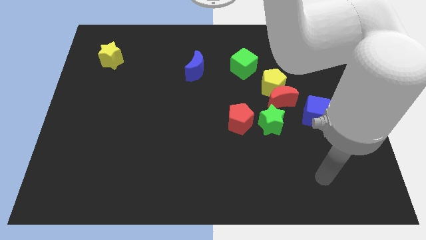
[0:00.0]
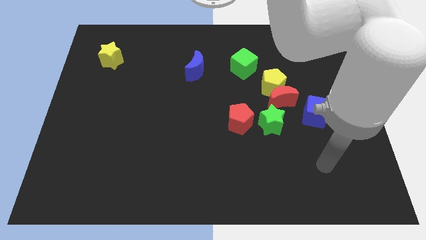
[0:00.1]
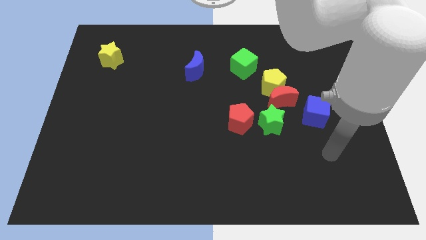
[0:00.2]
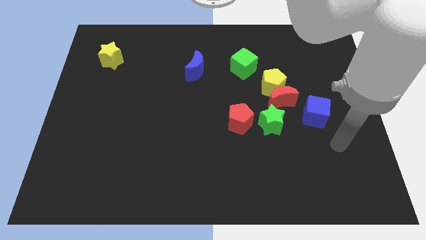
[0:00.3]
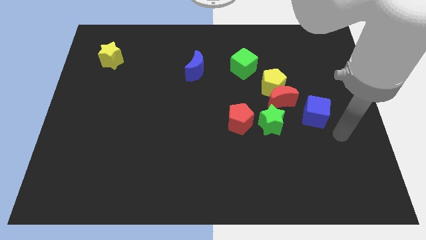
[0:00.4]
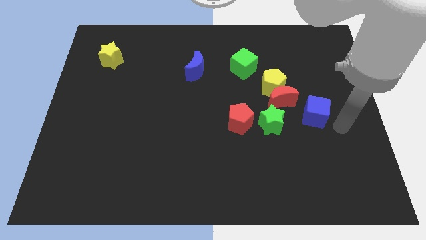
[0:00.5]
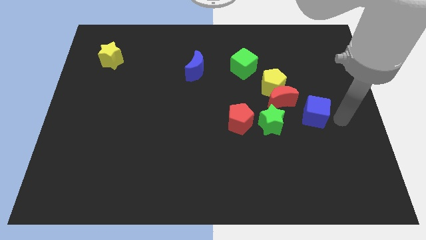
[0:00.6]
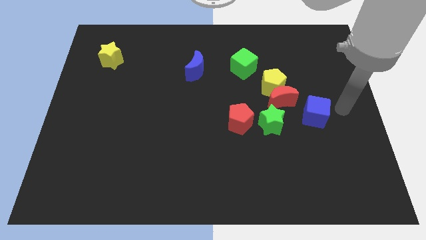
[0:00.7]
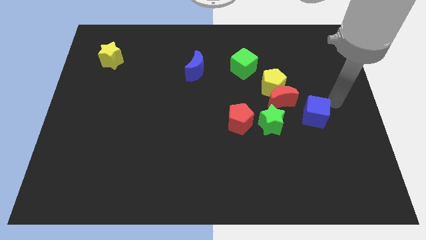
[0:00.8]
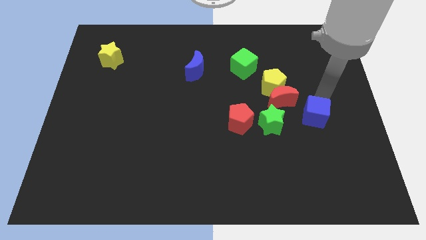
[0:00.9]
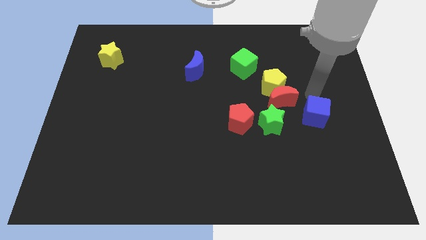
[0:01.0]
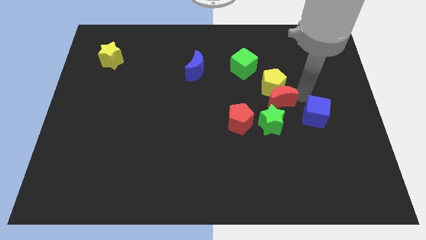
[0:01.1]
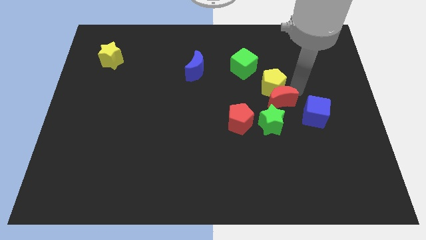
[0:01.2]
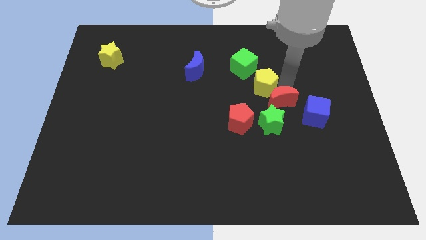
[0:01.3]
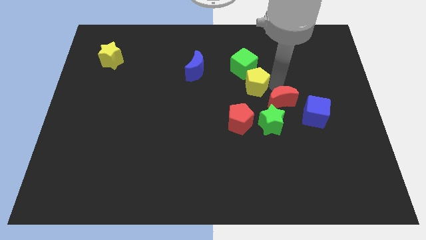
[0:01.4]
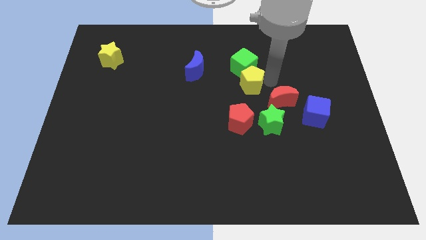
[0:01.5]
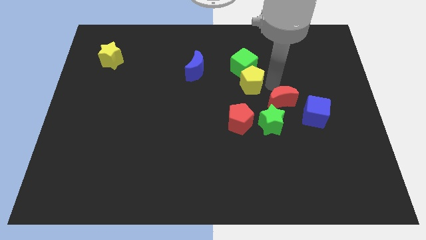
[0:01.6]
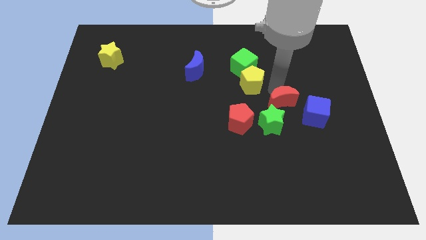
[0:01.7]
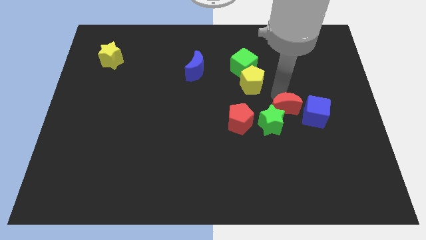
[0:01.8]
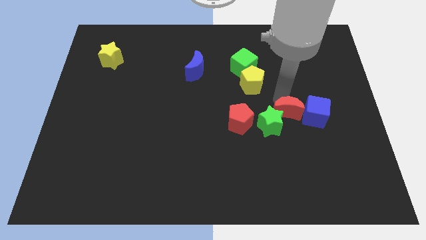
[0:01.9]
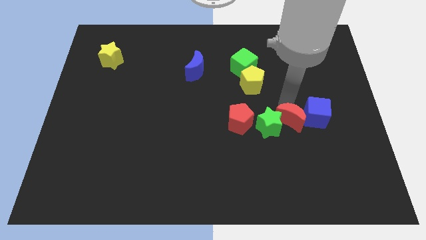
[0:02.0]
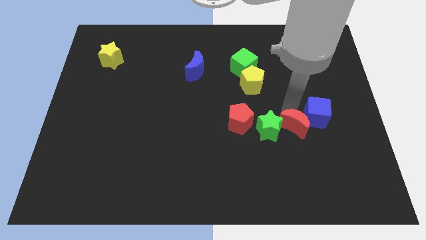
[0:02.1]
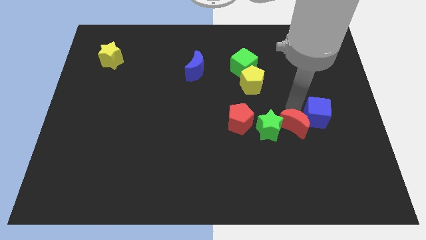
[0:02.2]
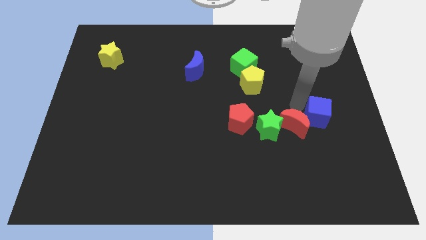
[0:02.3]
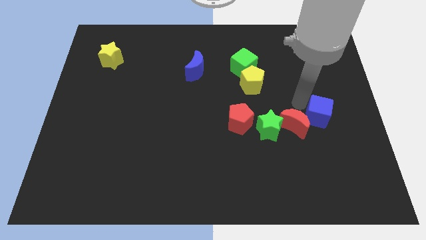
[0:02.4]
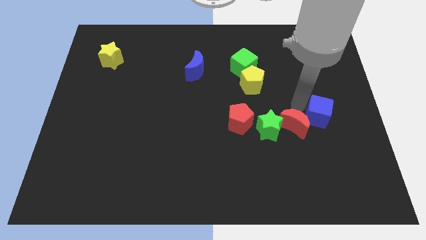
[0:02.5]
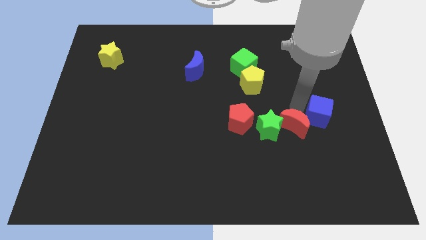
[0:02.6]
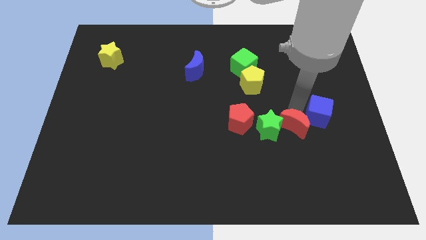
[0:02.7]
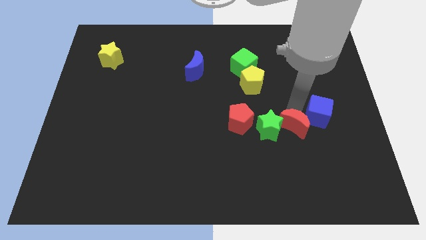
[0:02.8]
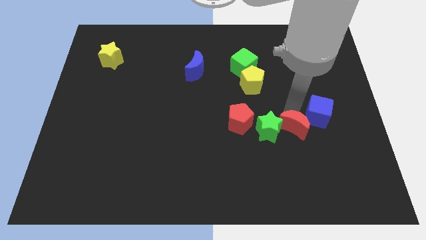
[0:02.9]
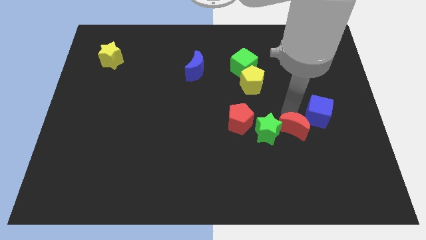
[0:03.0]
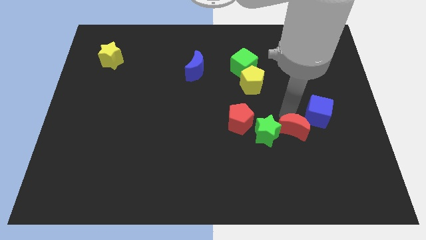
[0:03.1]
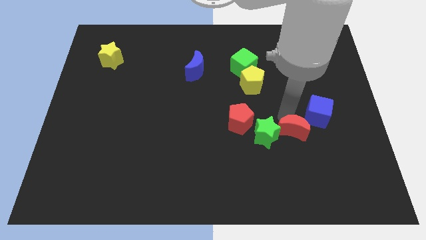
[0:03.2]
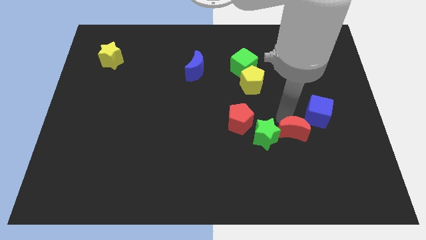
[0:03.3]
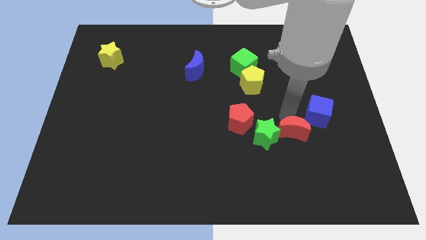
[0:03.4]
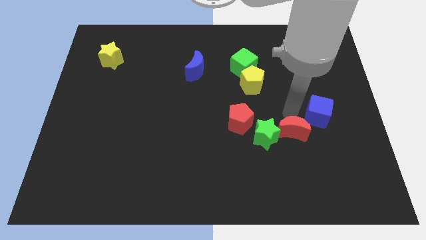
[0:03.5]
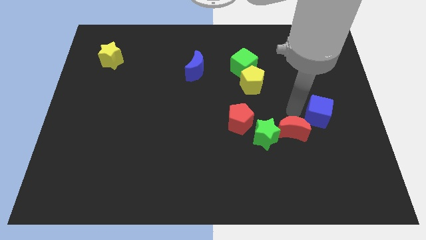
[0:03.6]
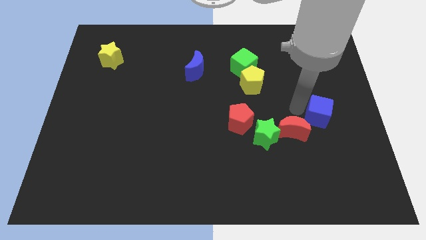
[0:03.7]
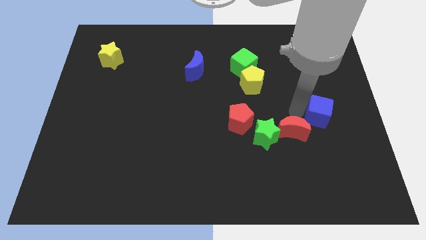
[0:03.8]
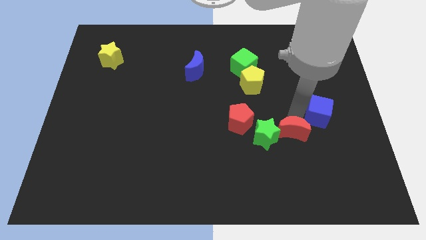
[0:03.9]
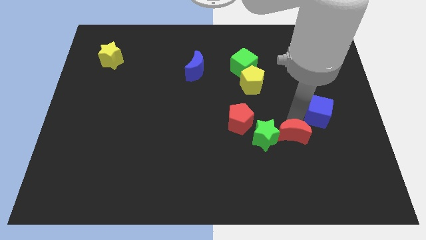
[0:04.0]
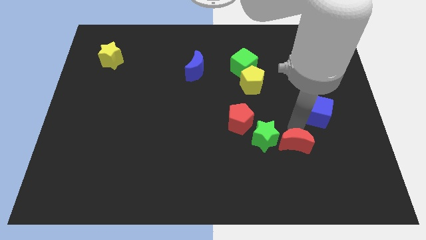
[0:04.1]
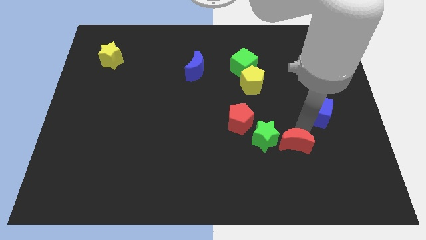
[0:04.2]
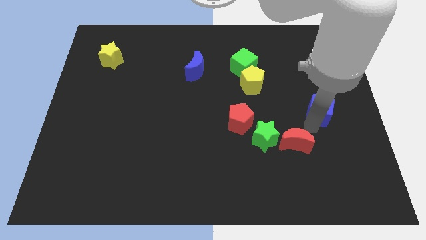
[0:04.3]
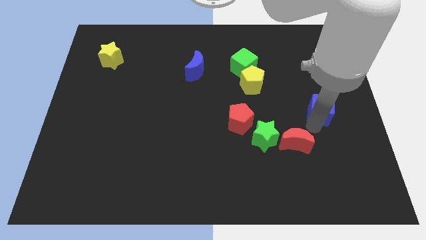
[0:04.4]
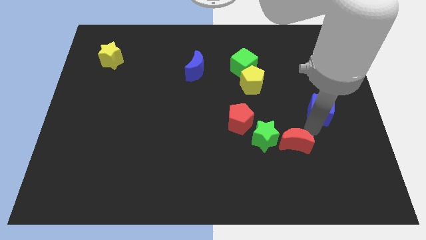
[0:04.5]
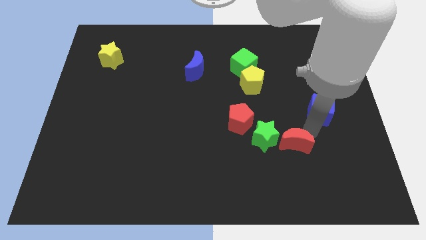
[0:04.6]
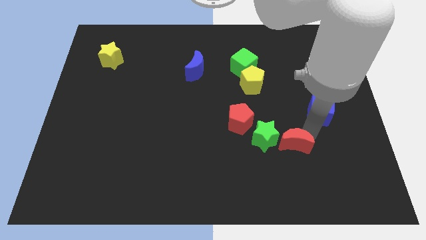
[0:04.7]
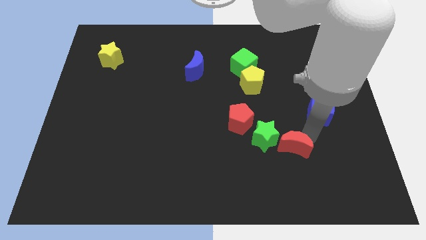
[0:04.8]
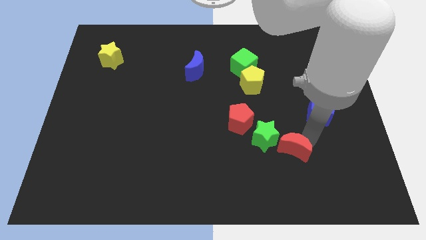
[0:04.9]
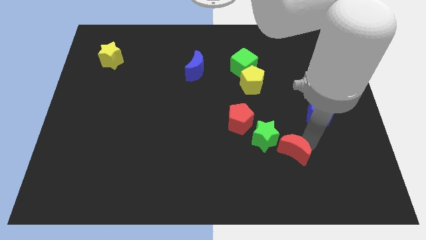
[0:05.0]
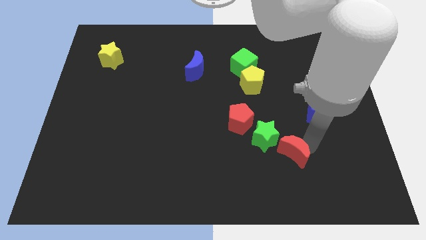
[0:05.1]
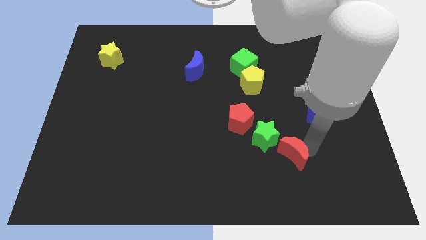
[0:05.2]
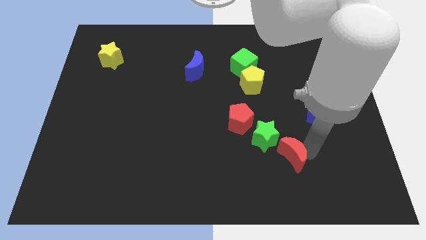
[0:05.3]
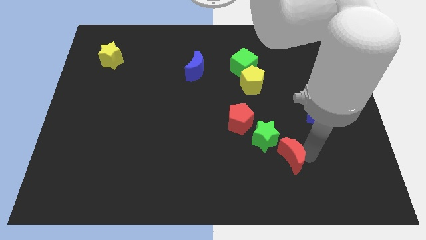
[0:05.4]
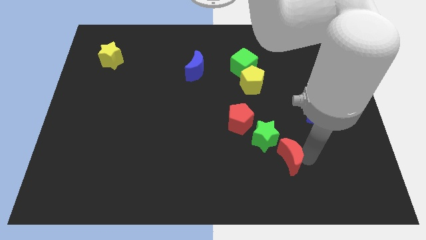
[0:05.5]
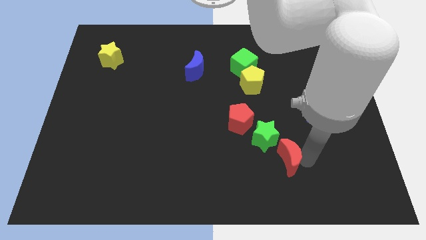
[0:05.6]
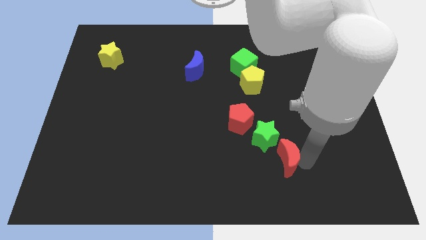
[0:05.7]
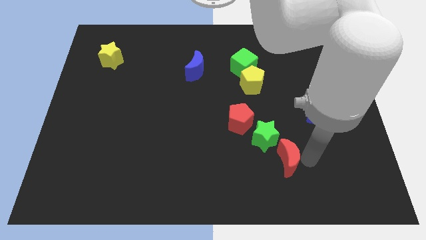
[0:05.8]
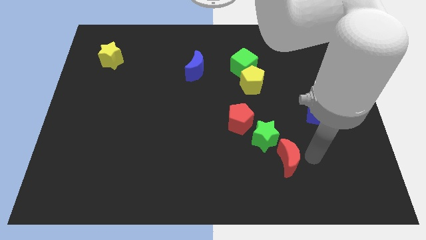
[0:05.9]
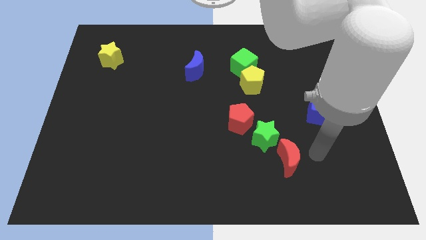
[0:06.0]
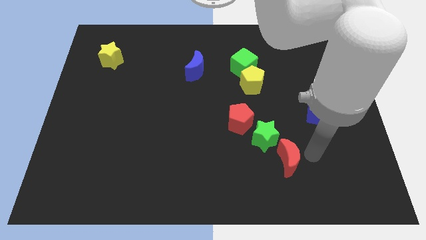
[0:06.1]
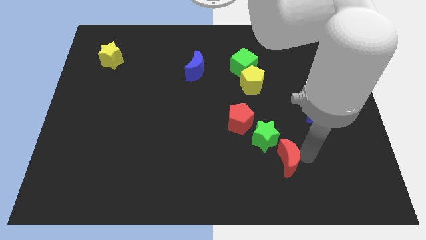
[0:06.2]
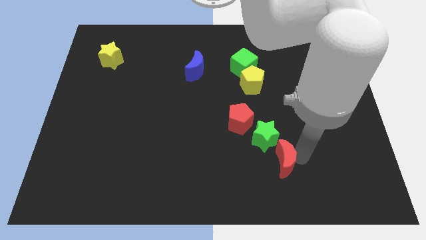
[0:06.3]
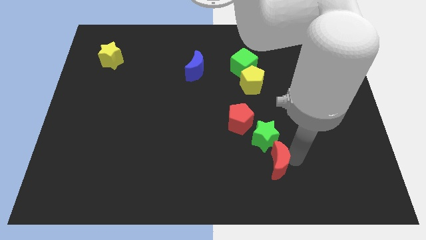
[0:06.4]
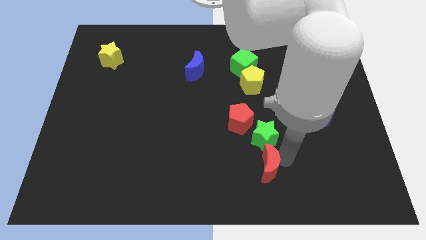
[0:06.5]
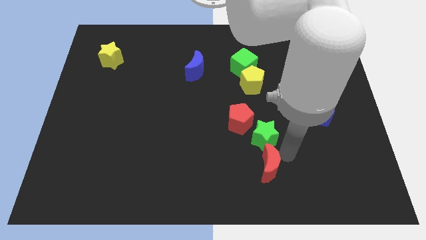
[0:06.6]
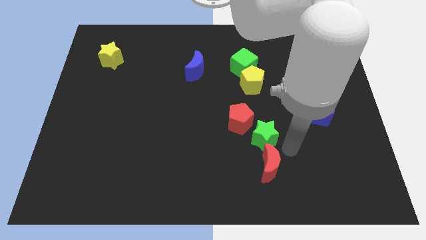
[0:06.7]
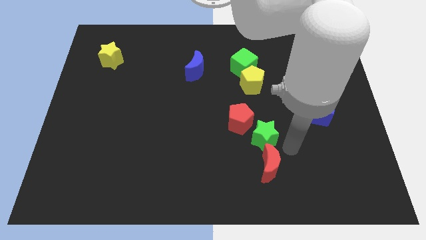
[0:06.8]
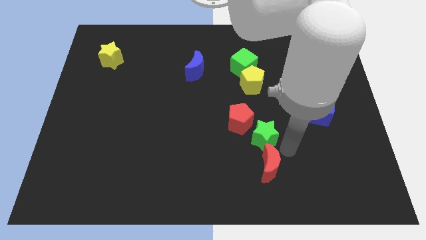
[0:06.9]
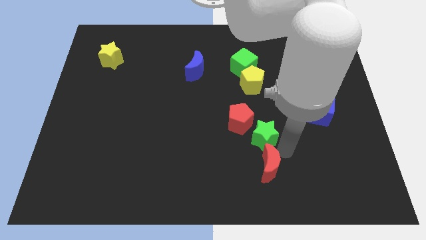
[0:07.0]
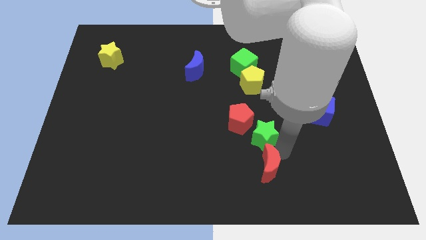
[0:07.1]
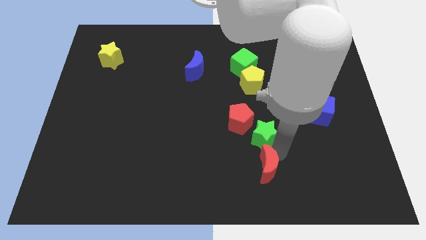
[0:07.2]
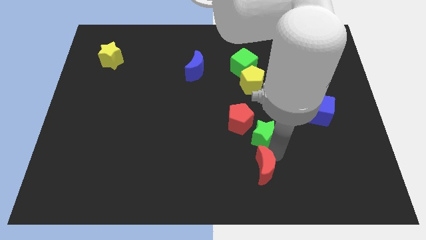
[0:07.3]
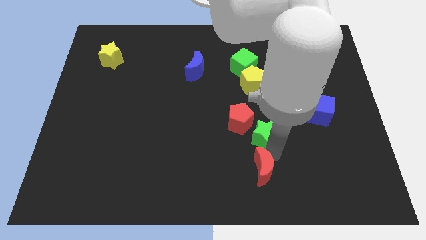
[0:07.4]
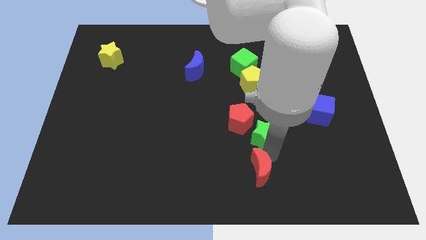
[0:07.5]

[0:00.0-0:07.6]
push the red moon to the bottom side
